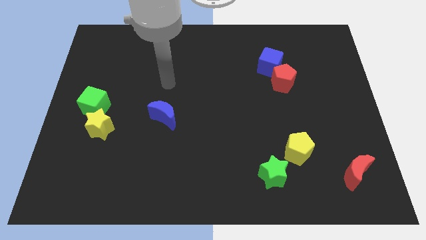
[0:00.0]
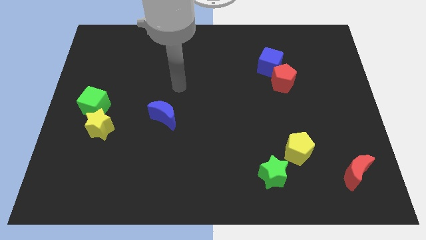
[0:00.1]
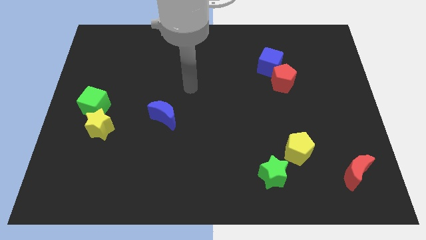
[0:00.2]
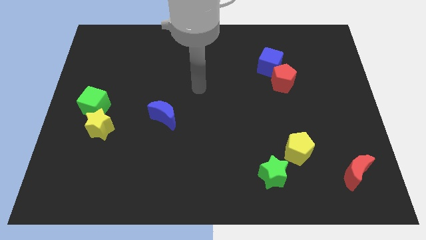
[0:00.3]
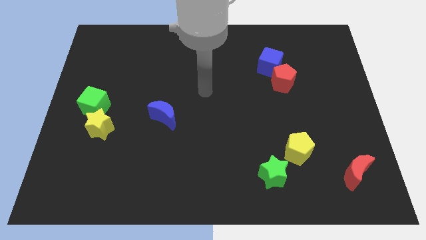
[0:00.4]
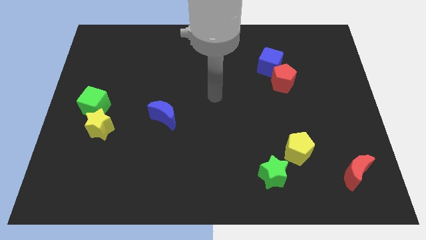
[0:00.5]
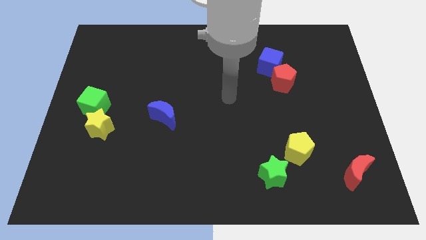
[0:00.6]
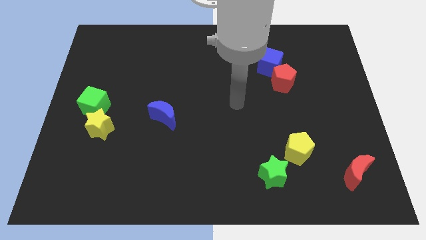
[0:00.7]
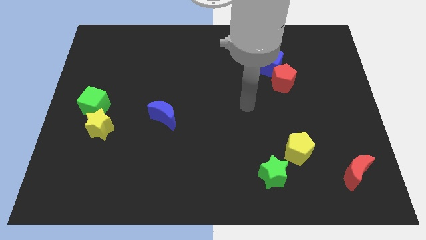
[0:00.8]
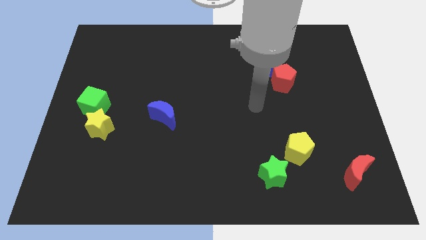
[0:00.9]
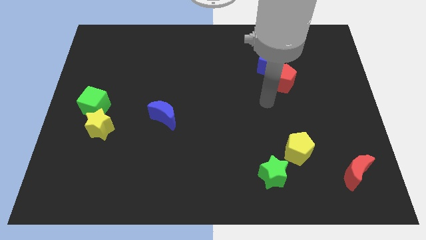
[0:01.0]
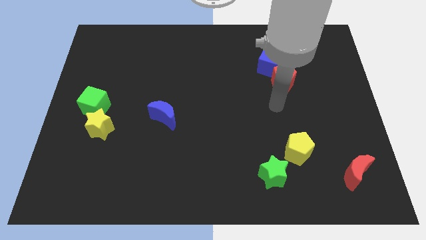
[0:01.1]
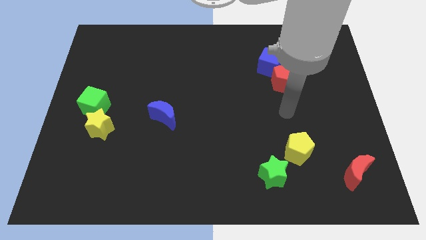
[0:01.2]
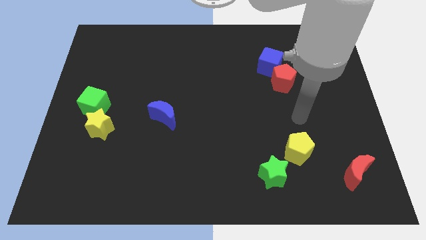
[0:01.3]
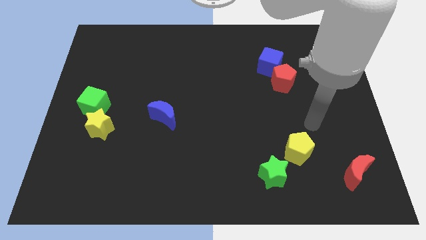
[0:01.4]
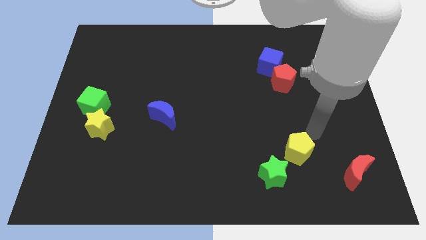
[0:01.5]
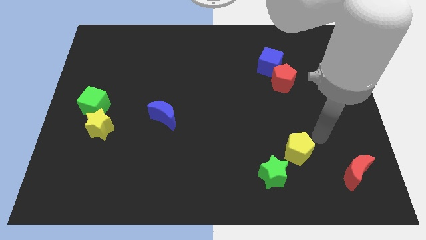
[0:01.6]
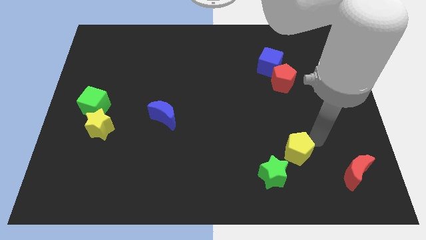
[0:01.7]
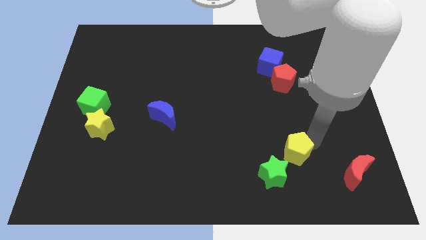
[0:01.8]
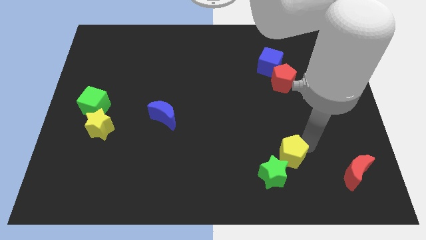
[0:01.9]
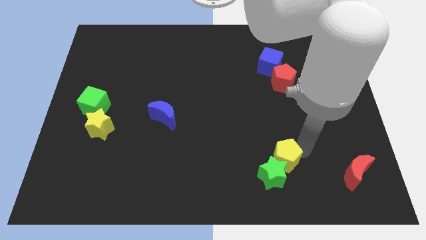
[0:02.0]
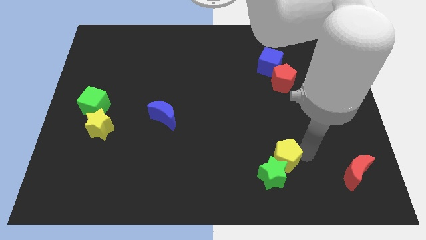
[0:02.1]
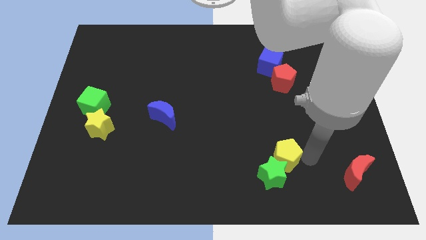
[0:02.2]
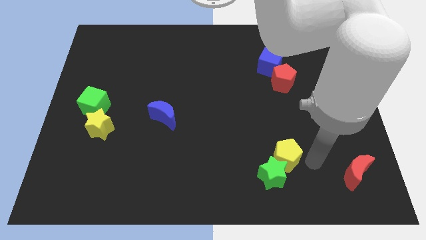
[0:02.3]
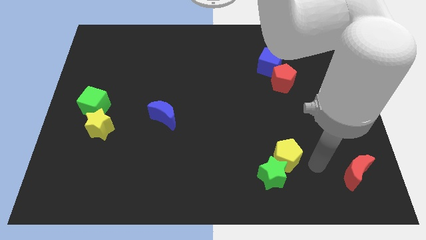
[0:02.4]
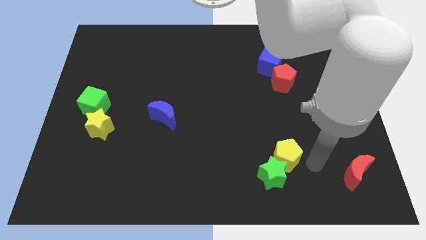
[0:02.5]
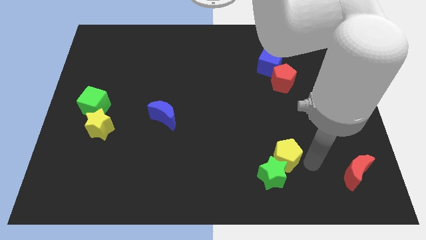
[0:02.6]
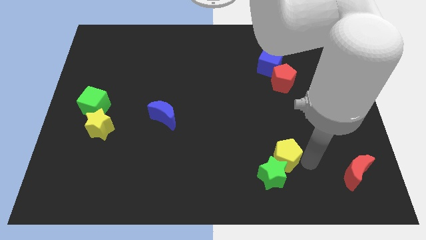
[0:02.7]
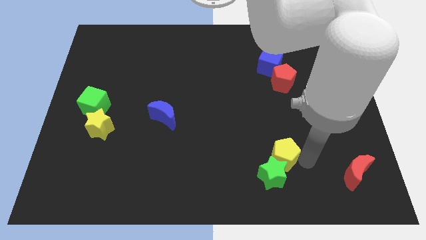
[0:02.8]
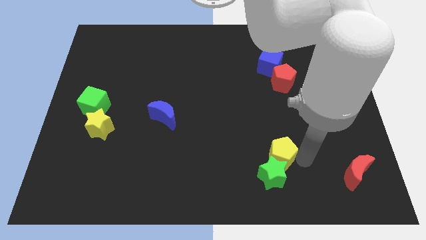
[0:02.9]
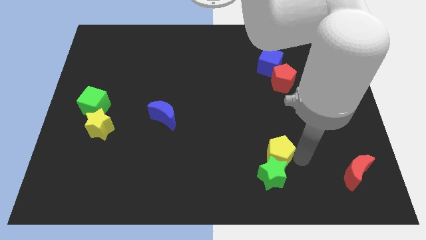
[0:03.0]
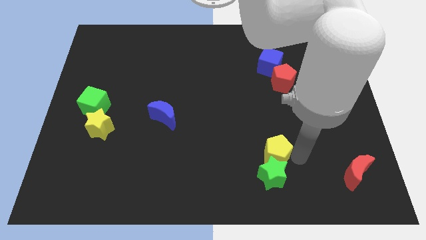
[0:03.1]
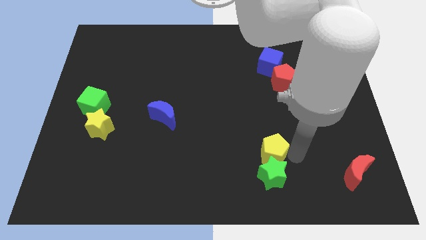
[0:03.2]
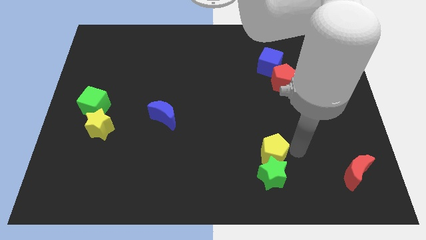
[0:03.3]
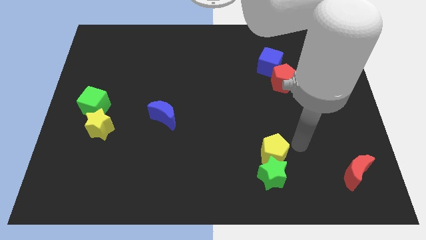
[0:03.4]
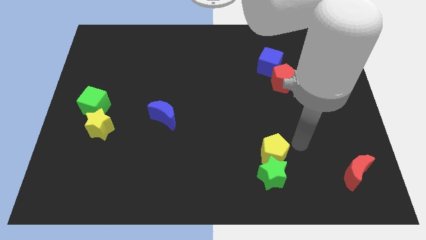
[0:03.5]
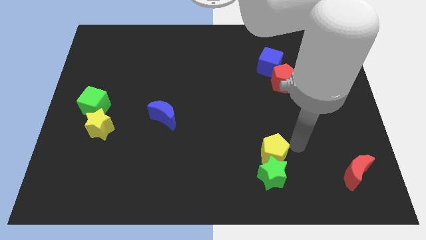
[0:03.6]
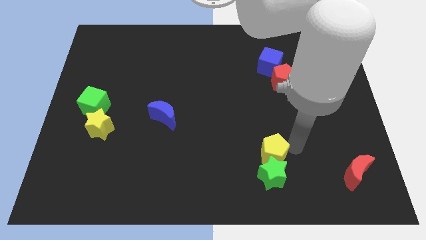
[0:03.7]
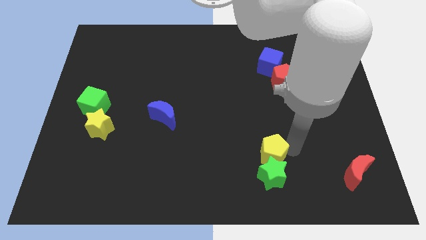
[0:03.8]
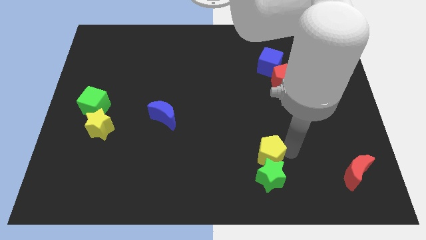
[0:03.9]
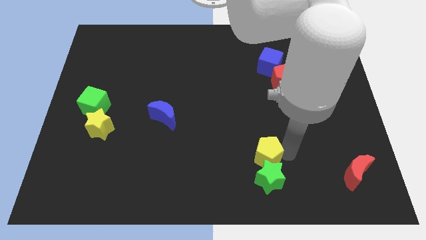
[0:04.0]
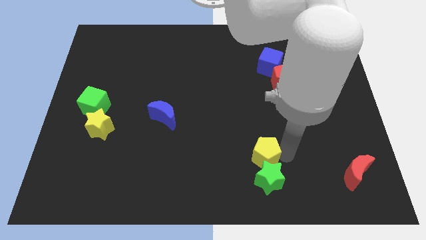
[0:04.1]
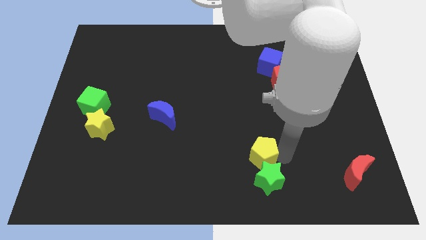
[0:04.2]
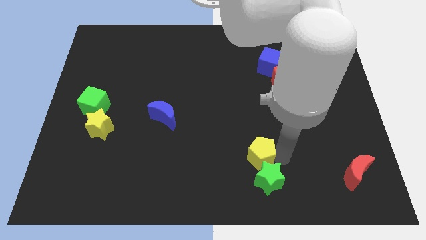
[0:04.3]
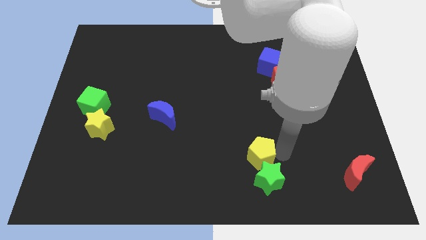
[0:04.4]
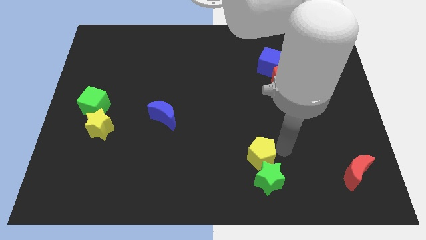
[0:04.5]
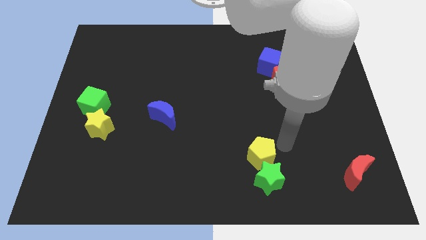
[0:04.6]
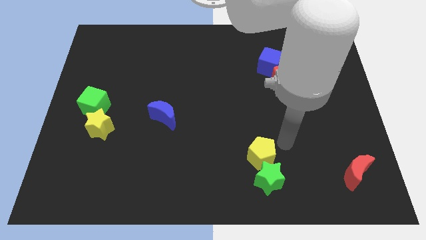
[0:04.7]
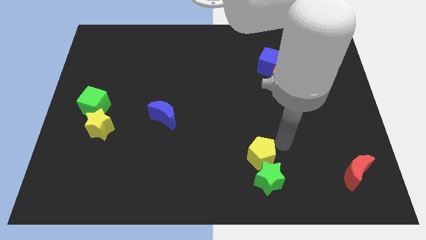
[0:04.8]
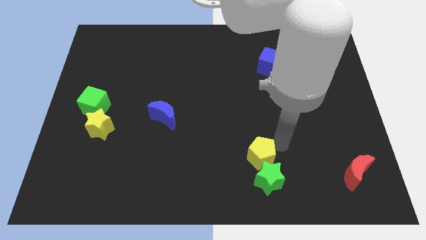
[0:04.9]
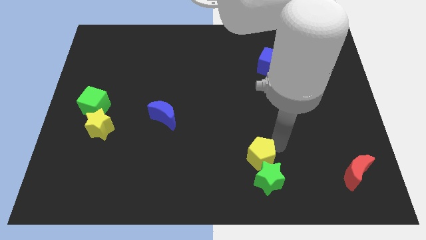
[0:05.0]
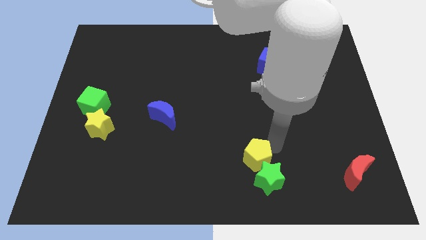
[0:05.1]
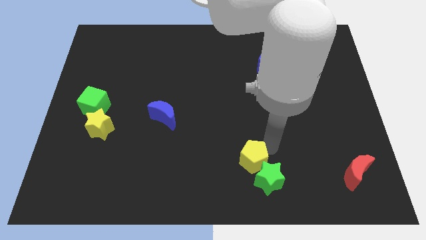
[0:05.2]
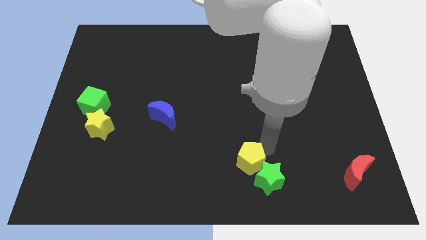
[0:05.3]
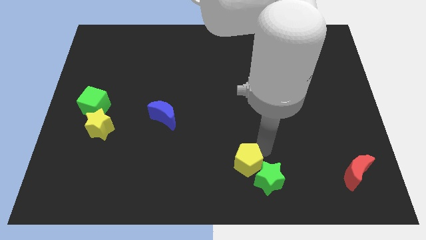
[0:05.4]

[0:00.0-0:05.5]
push the yellow pentagon to the bottom

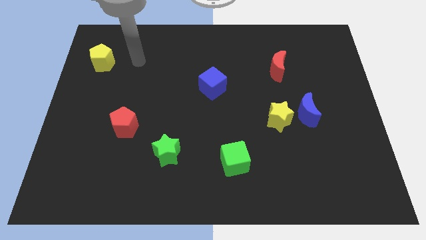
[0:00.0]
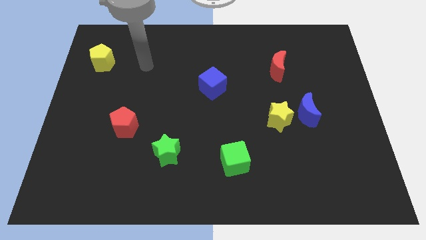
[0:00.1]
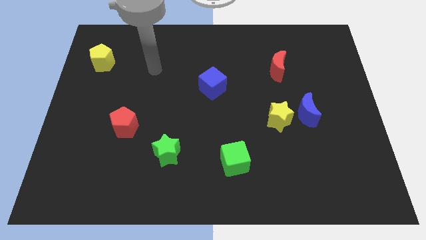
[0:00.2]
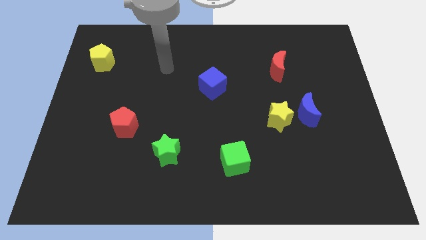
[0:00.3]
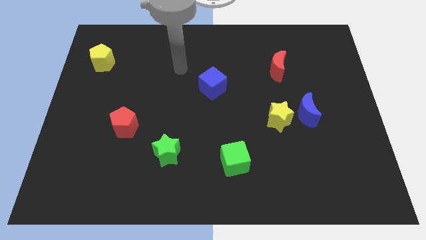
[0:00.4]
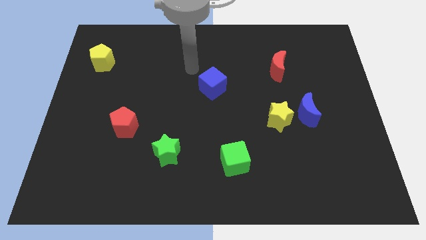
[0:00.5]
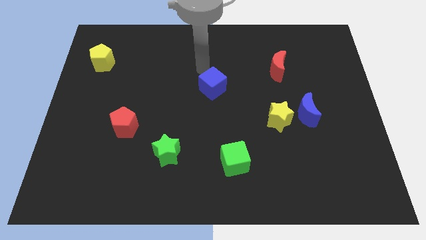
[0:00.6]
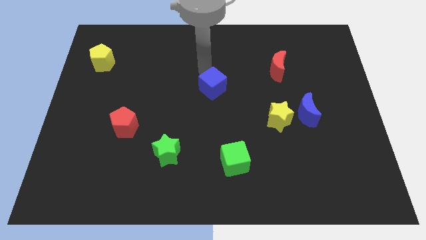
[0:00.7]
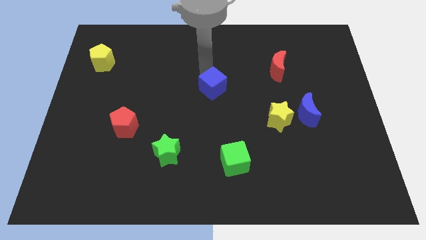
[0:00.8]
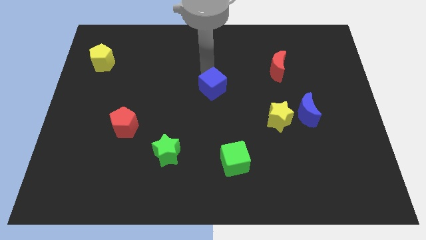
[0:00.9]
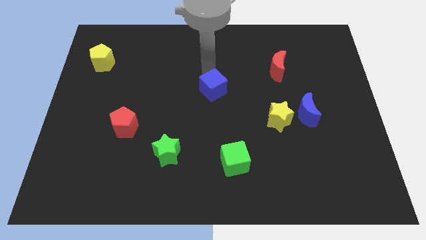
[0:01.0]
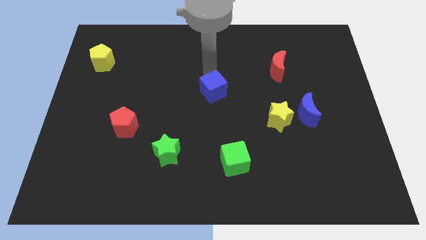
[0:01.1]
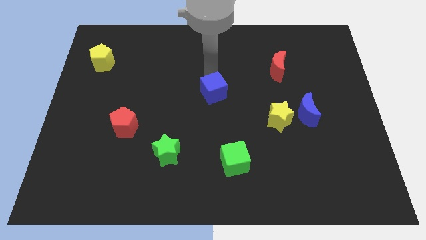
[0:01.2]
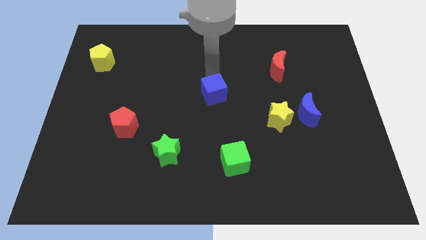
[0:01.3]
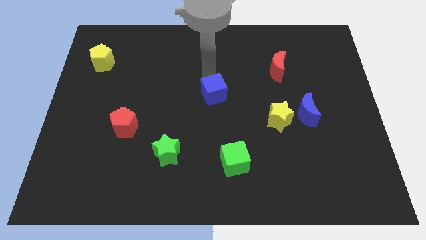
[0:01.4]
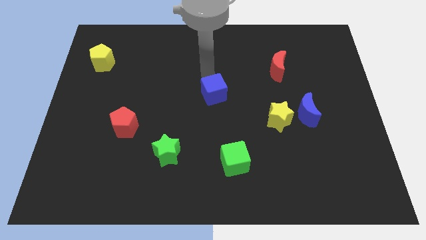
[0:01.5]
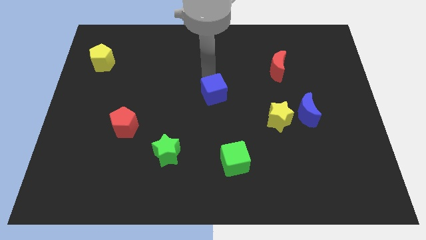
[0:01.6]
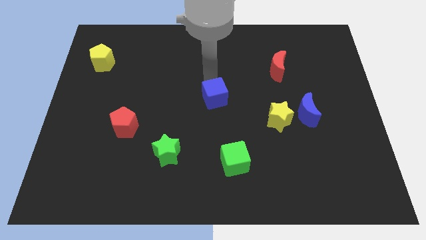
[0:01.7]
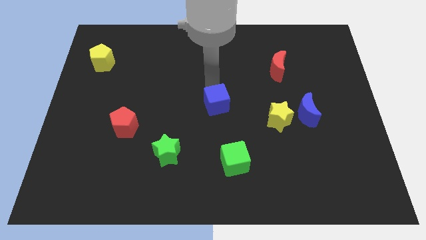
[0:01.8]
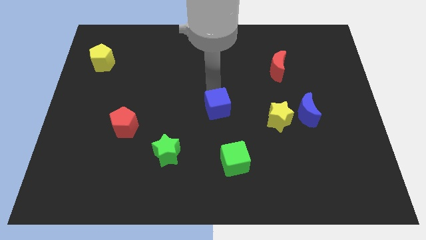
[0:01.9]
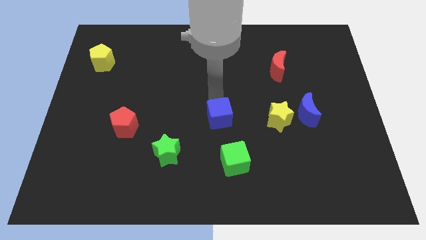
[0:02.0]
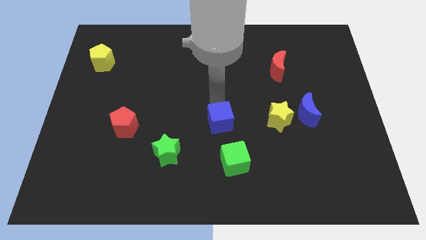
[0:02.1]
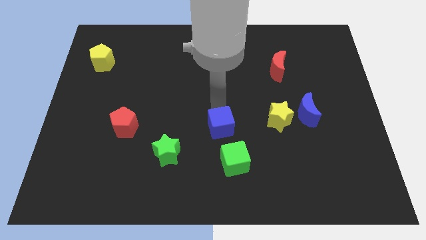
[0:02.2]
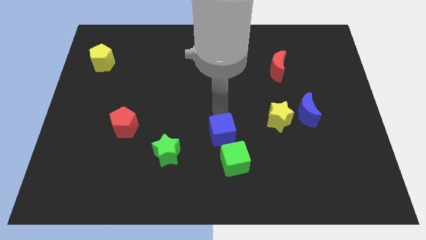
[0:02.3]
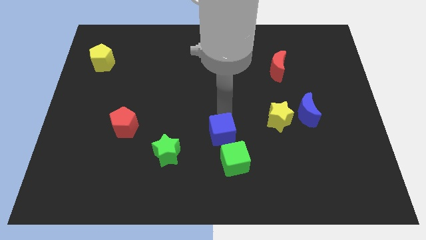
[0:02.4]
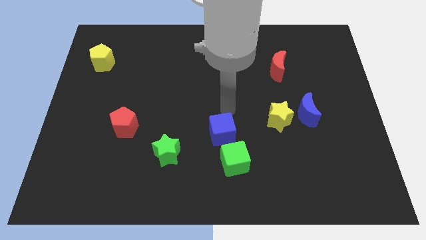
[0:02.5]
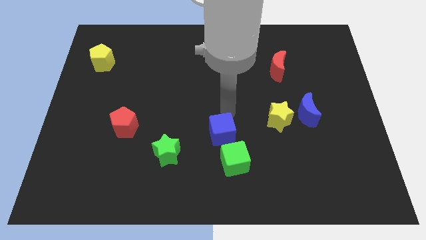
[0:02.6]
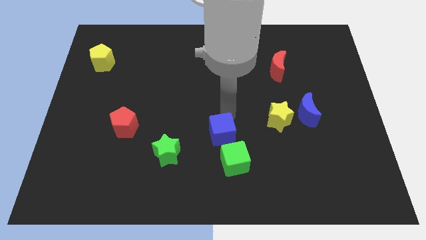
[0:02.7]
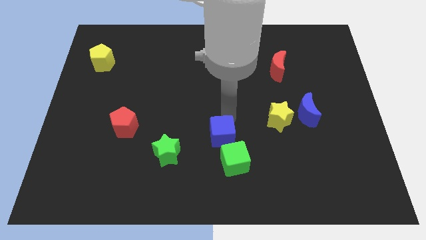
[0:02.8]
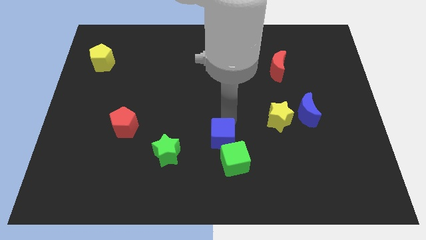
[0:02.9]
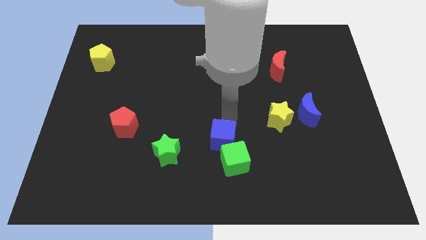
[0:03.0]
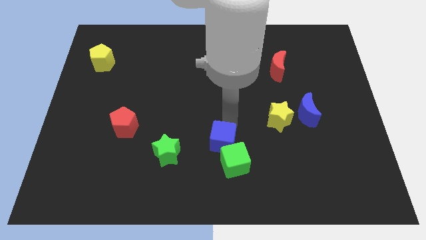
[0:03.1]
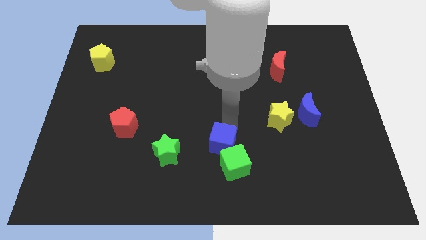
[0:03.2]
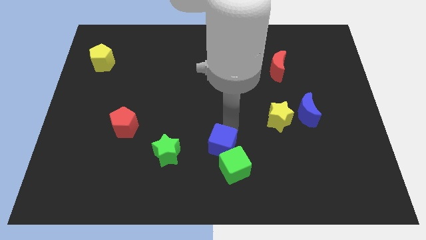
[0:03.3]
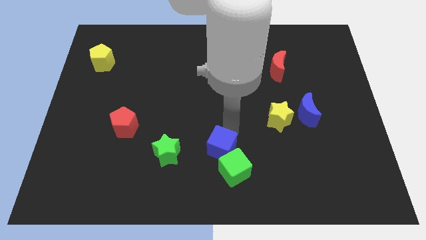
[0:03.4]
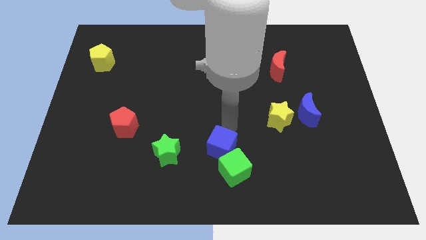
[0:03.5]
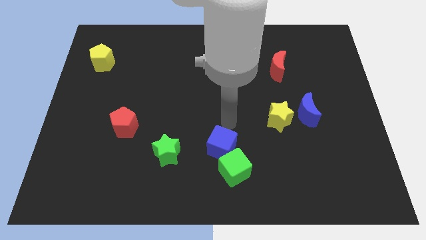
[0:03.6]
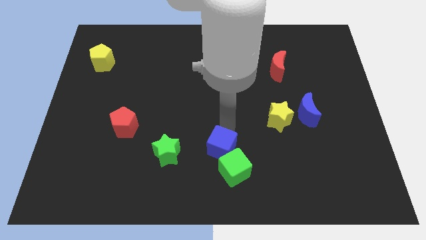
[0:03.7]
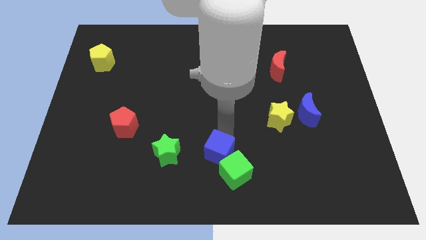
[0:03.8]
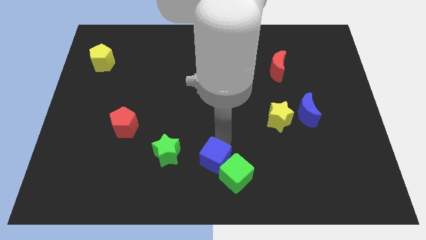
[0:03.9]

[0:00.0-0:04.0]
put the blue cube to the bottom side
